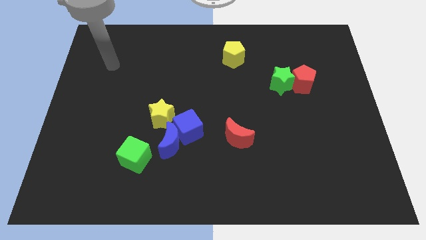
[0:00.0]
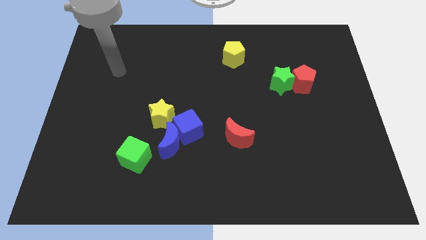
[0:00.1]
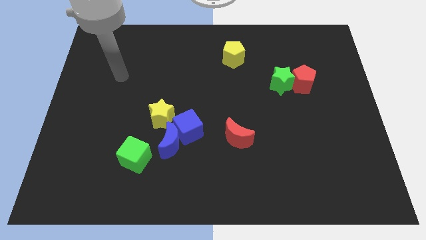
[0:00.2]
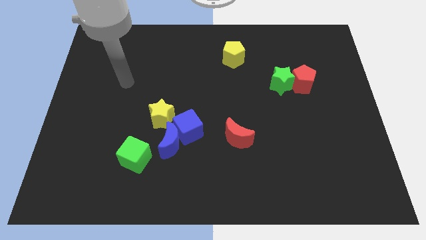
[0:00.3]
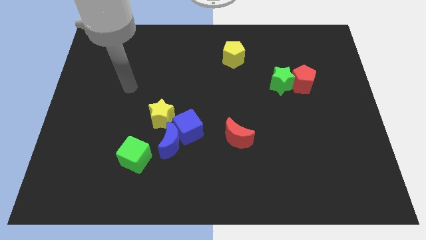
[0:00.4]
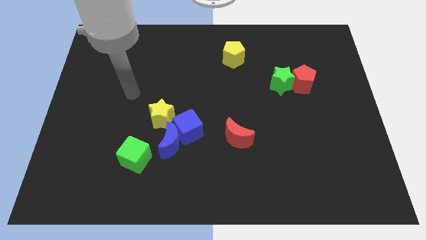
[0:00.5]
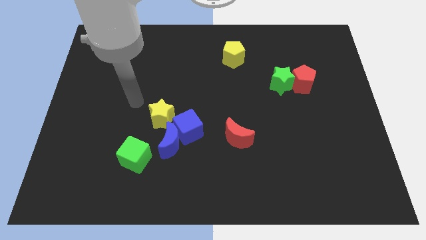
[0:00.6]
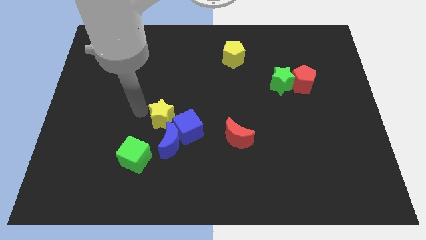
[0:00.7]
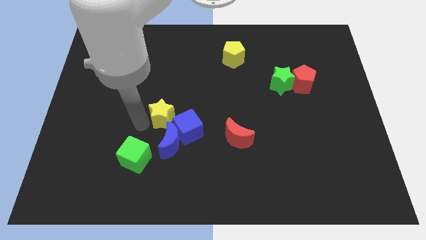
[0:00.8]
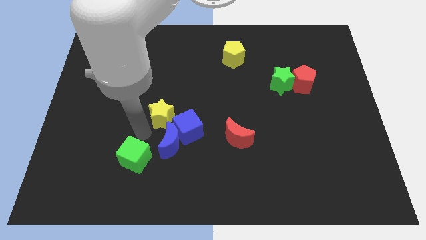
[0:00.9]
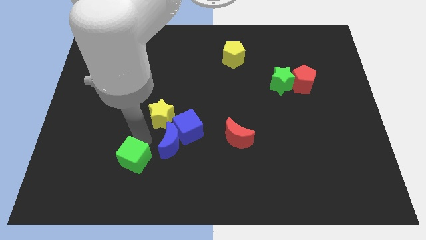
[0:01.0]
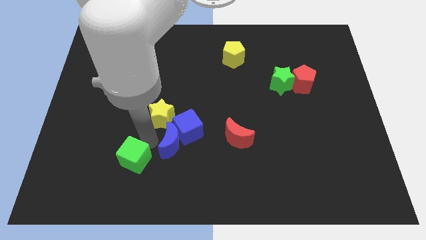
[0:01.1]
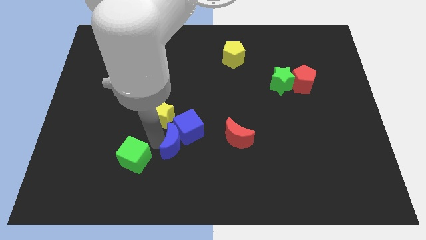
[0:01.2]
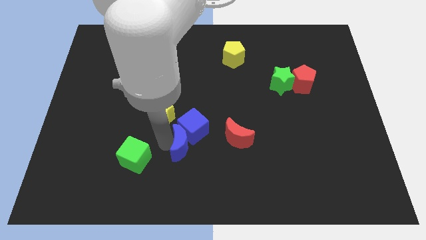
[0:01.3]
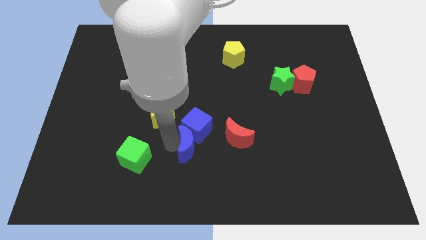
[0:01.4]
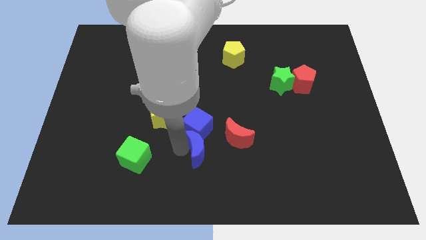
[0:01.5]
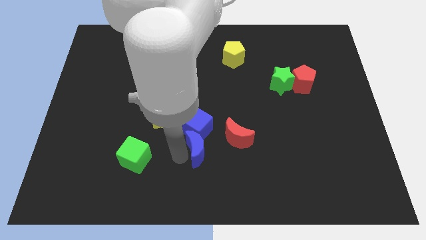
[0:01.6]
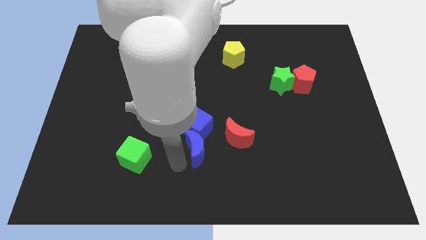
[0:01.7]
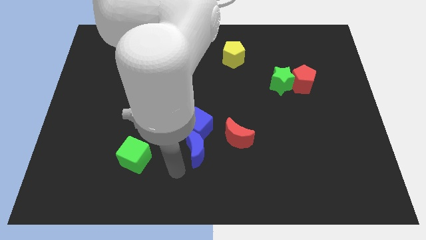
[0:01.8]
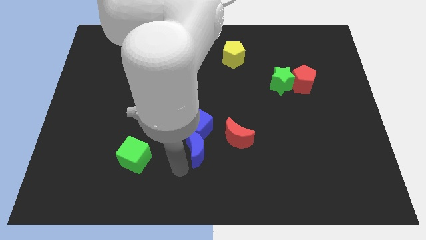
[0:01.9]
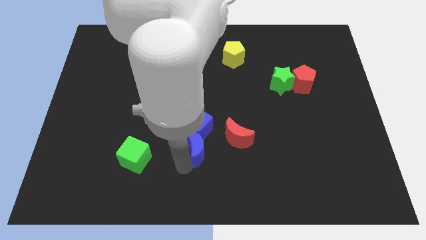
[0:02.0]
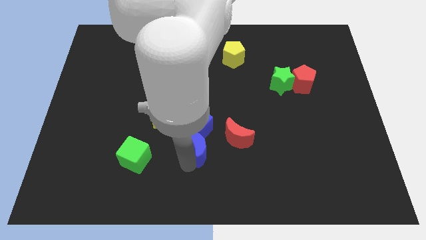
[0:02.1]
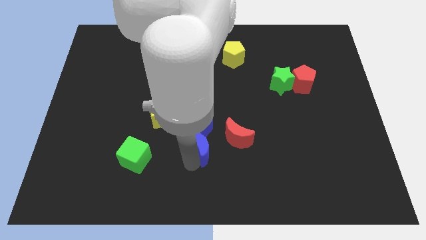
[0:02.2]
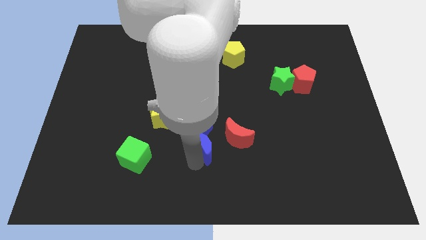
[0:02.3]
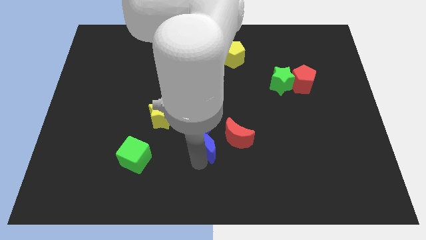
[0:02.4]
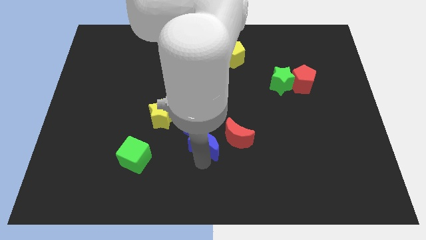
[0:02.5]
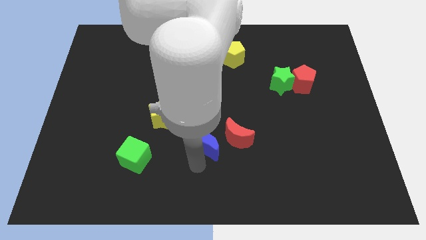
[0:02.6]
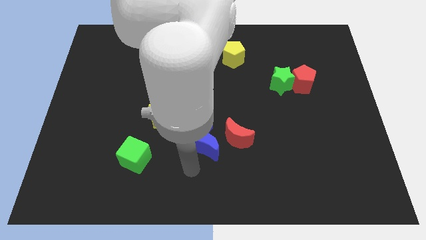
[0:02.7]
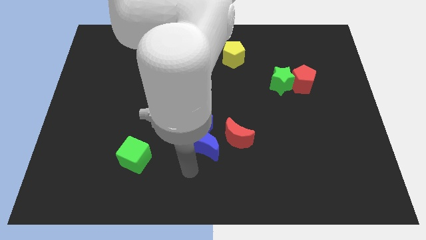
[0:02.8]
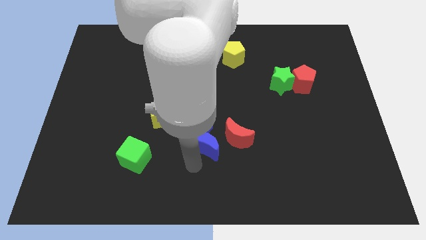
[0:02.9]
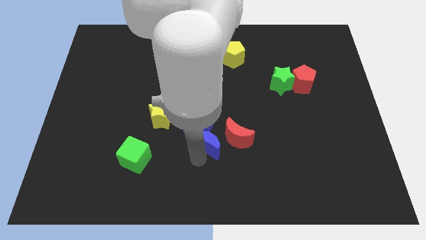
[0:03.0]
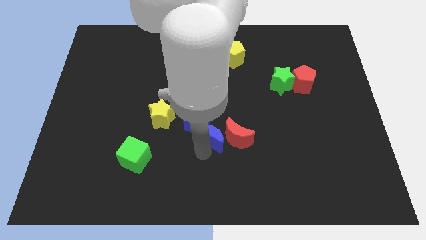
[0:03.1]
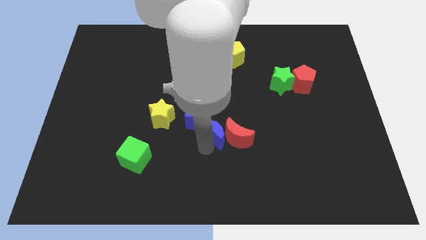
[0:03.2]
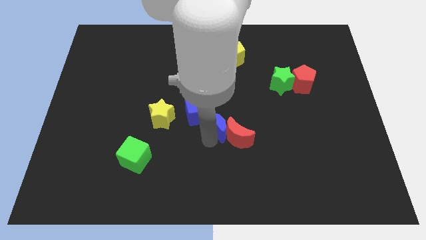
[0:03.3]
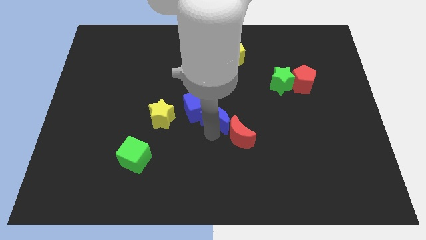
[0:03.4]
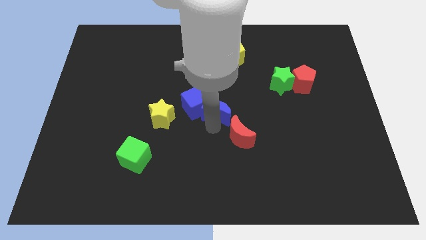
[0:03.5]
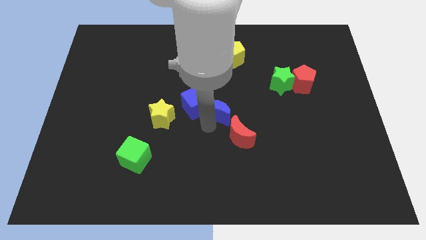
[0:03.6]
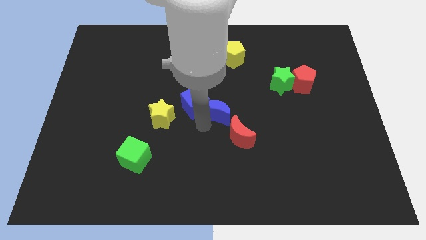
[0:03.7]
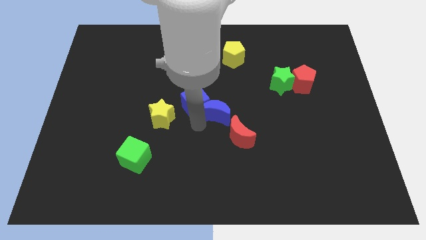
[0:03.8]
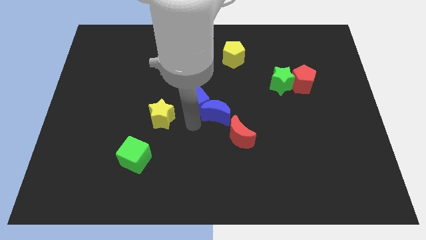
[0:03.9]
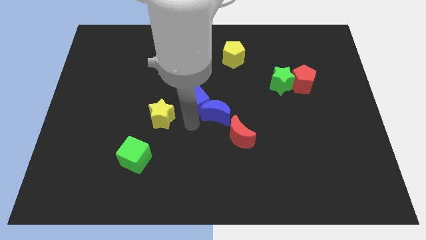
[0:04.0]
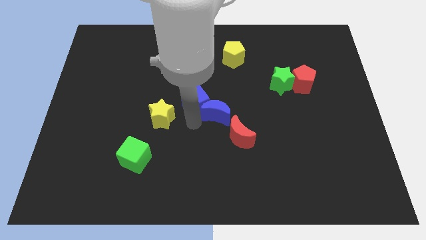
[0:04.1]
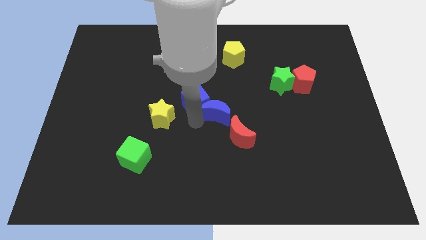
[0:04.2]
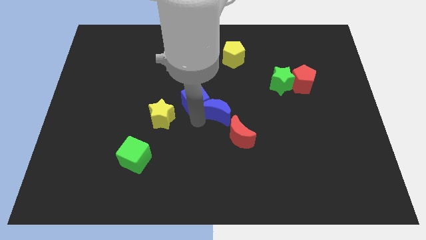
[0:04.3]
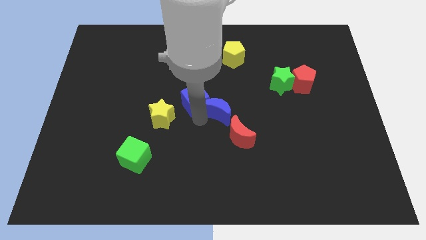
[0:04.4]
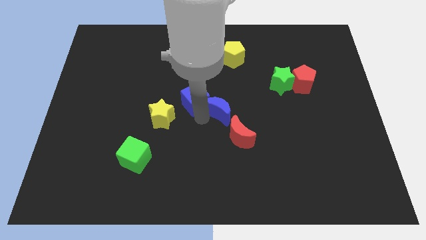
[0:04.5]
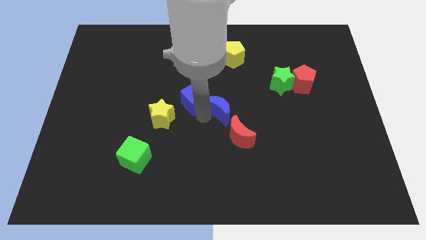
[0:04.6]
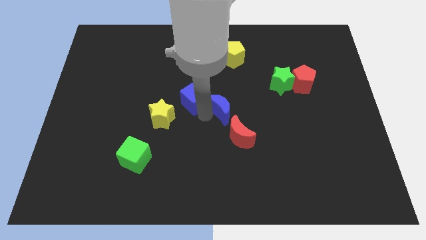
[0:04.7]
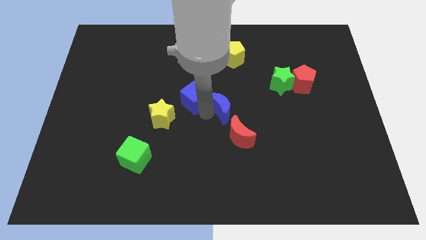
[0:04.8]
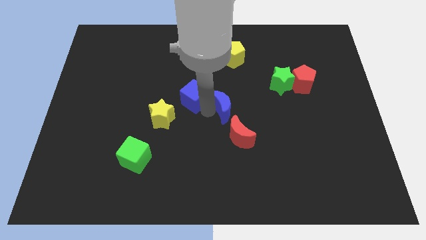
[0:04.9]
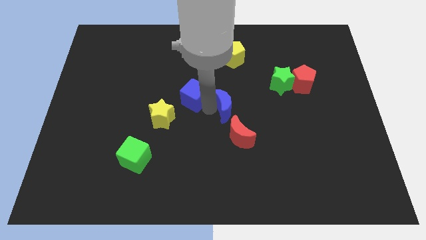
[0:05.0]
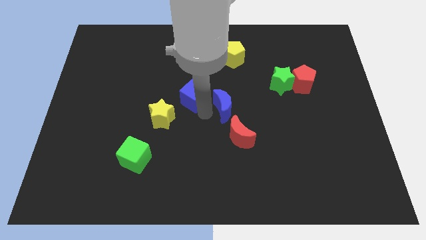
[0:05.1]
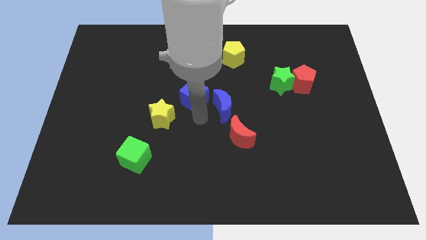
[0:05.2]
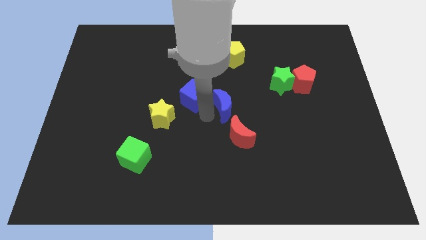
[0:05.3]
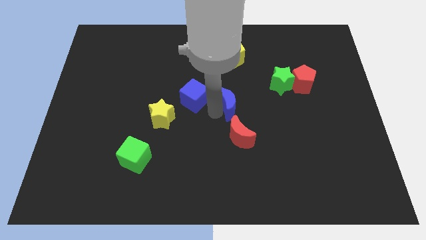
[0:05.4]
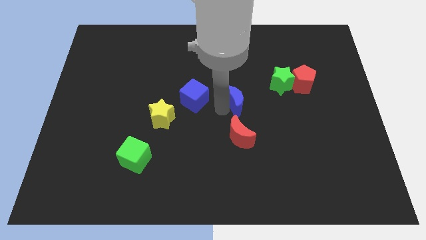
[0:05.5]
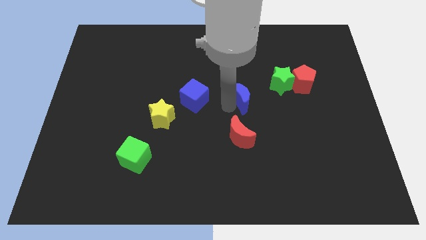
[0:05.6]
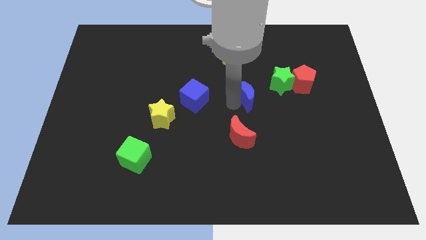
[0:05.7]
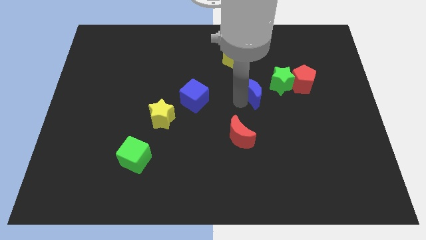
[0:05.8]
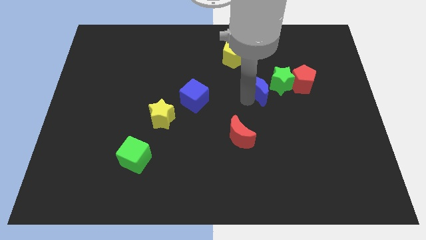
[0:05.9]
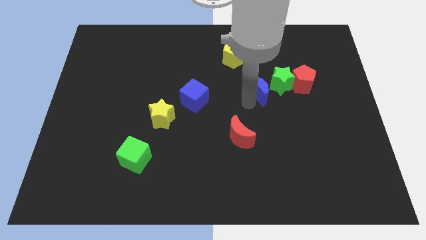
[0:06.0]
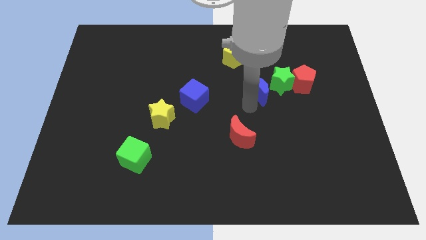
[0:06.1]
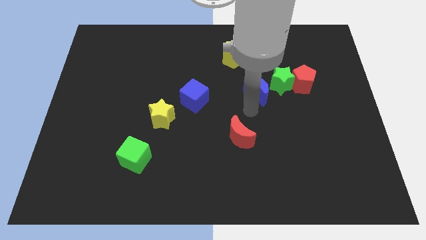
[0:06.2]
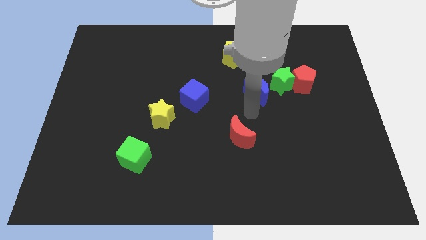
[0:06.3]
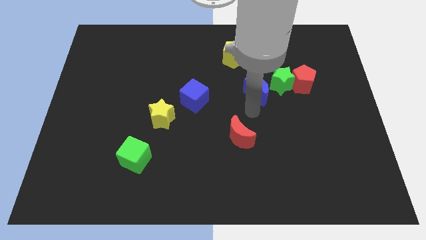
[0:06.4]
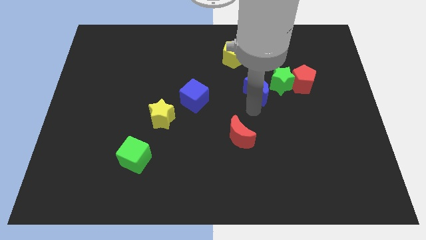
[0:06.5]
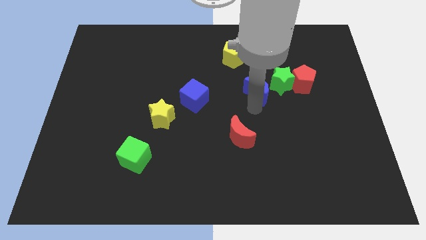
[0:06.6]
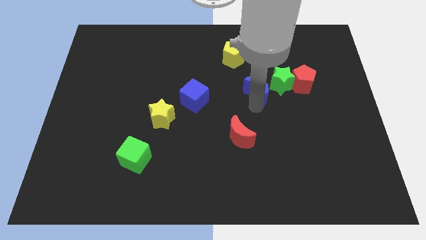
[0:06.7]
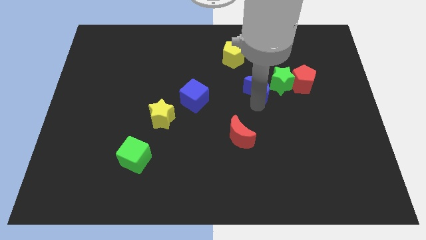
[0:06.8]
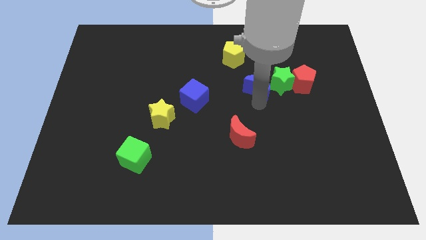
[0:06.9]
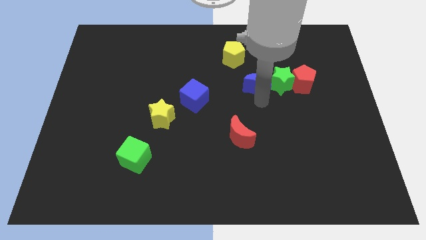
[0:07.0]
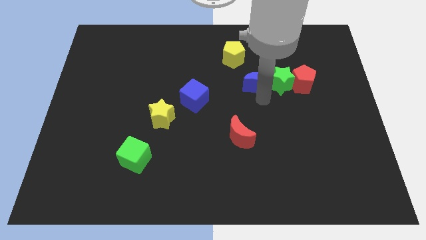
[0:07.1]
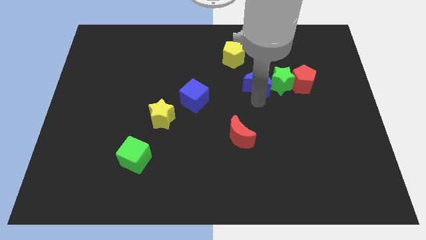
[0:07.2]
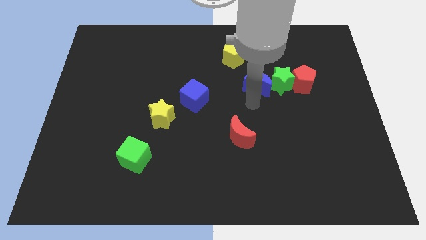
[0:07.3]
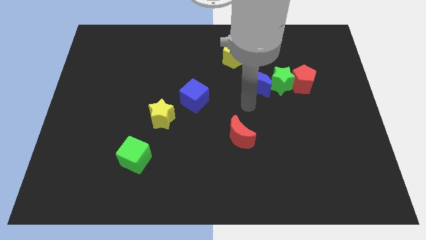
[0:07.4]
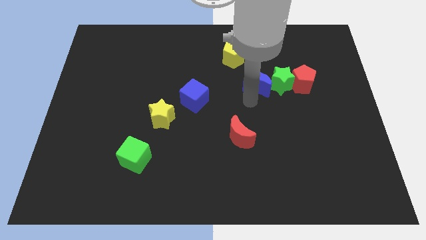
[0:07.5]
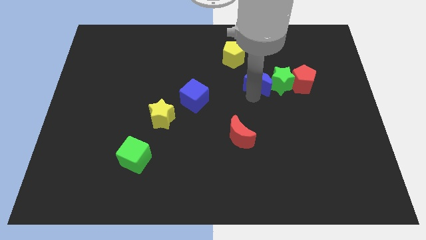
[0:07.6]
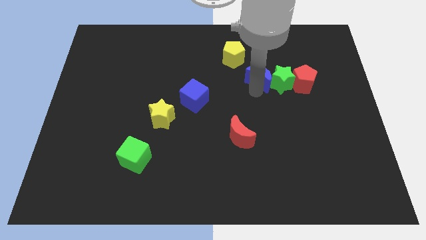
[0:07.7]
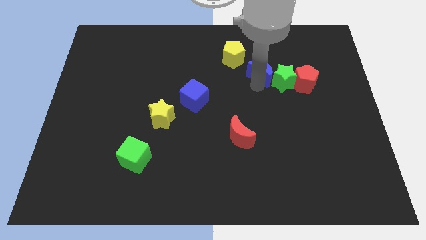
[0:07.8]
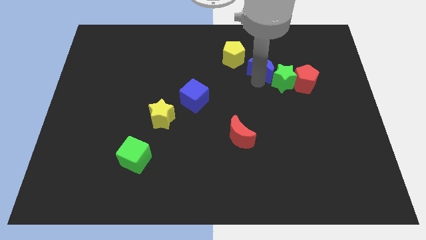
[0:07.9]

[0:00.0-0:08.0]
slide the blue moon to the right side of the yellow pentagon
